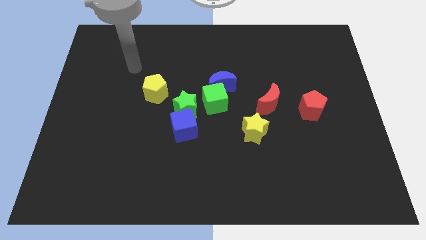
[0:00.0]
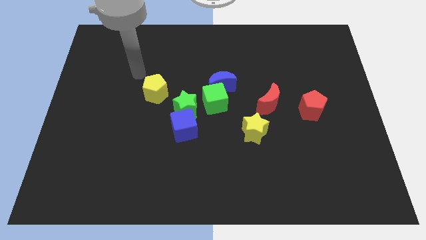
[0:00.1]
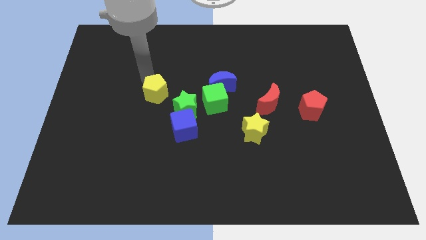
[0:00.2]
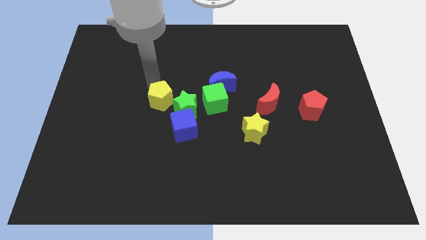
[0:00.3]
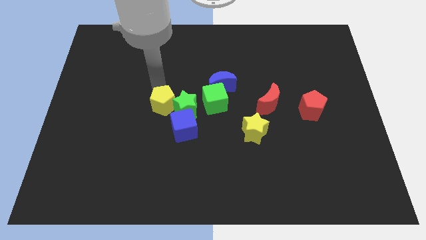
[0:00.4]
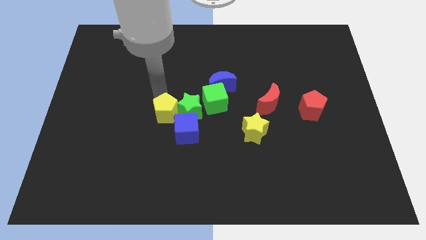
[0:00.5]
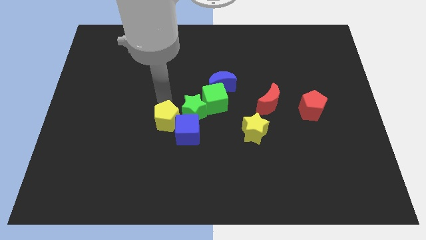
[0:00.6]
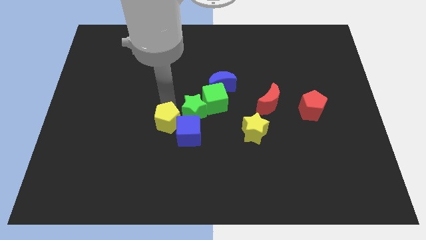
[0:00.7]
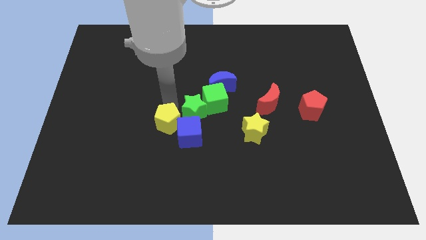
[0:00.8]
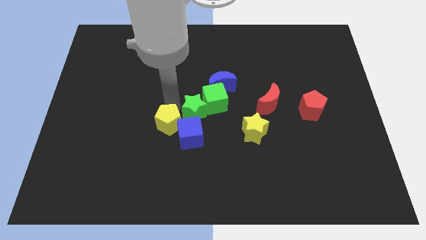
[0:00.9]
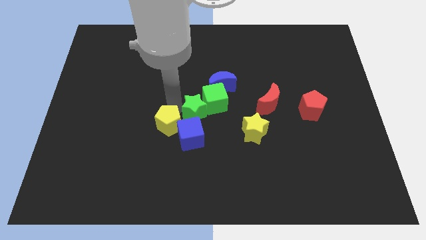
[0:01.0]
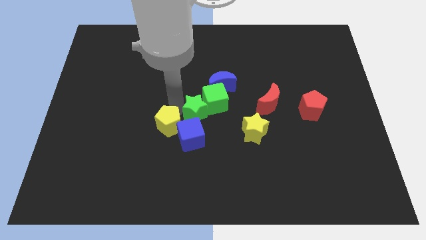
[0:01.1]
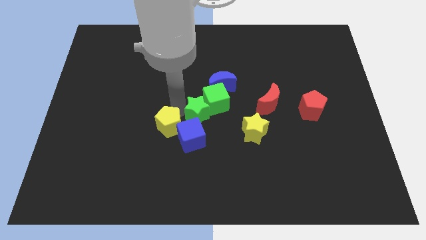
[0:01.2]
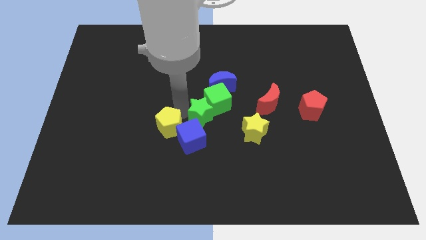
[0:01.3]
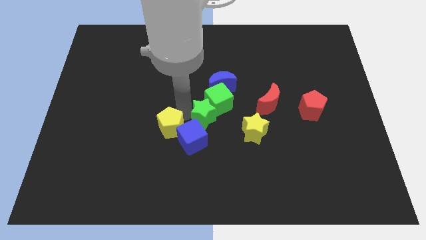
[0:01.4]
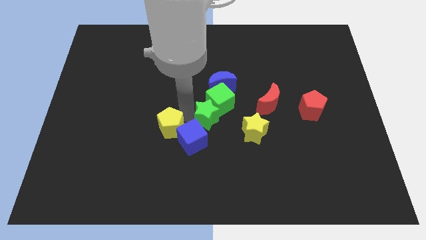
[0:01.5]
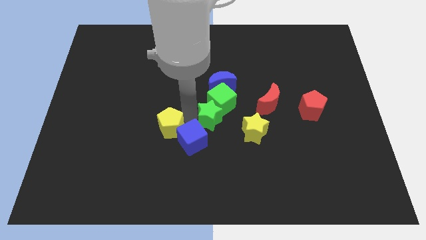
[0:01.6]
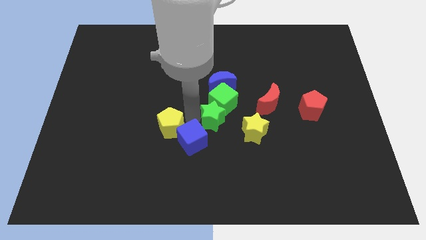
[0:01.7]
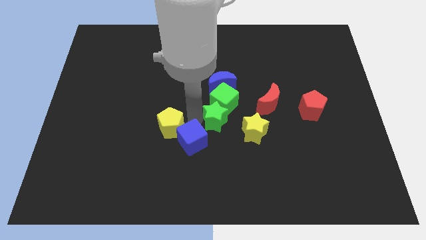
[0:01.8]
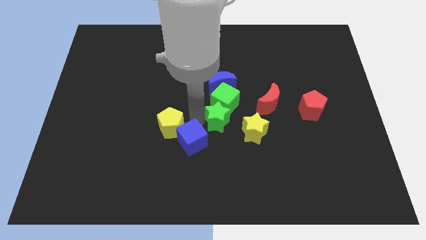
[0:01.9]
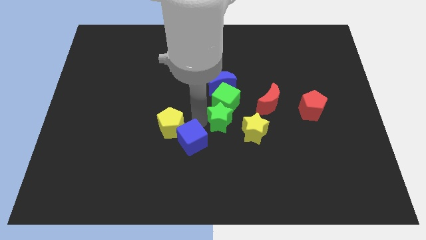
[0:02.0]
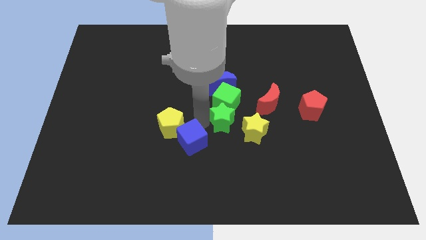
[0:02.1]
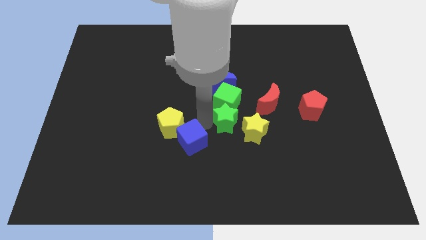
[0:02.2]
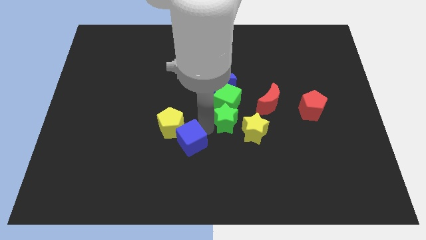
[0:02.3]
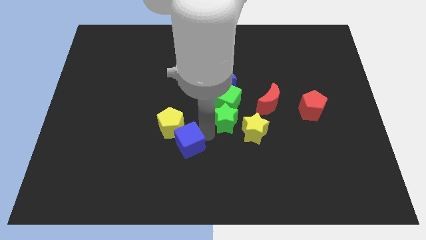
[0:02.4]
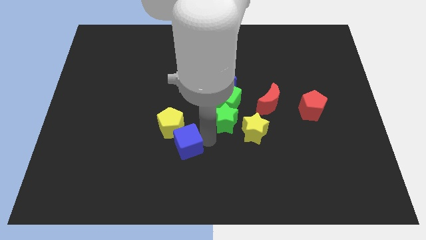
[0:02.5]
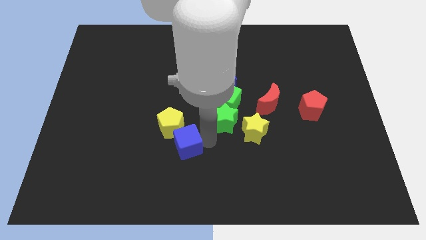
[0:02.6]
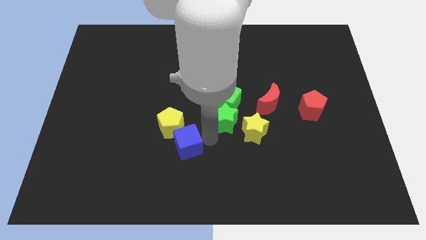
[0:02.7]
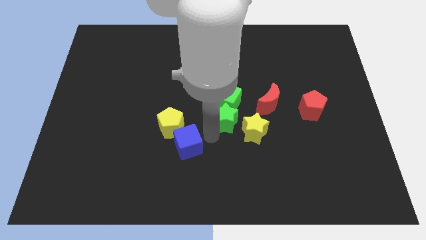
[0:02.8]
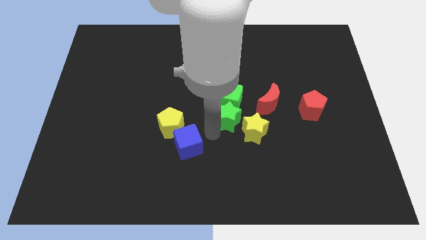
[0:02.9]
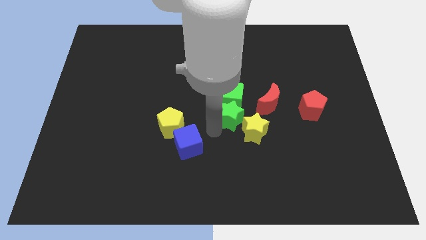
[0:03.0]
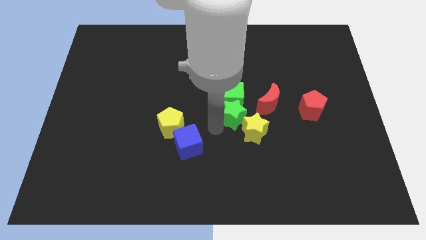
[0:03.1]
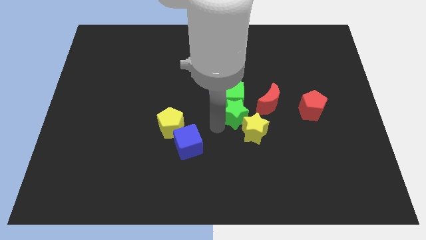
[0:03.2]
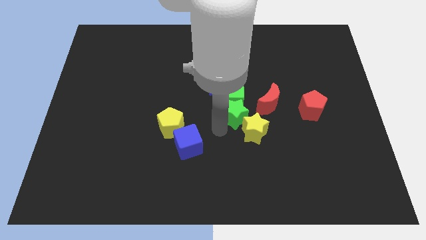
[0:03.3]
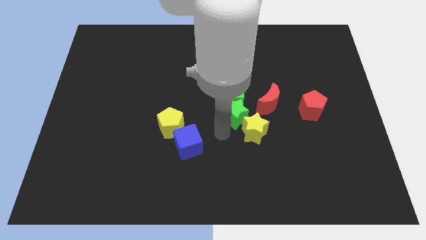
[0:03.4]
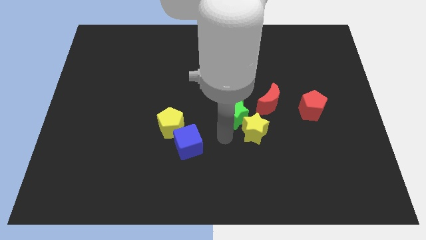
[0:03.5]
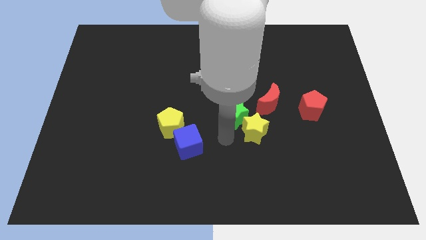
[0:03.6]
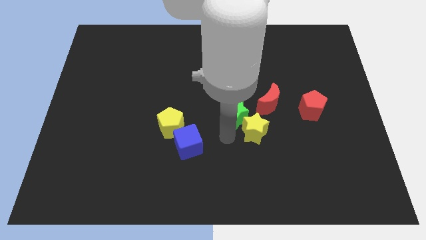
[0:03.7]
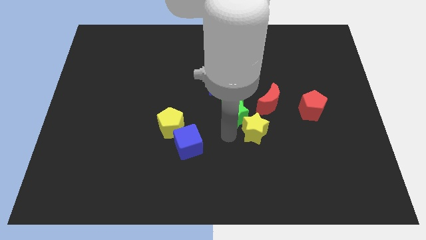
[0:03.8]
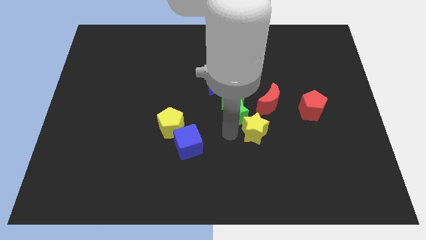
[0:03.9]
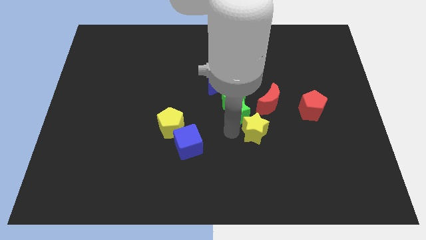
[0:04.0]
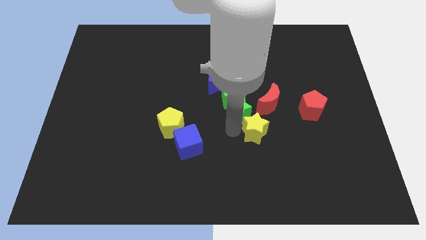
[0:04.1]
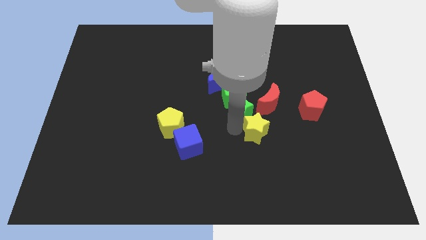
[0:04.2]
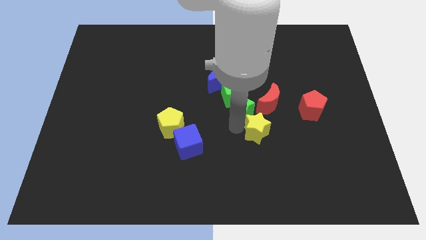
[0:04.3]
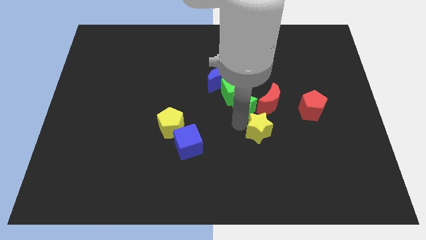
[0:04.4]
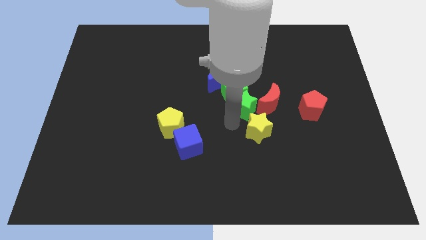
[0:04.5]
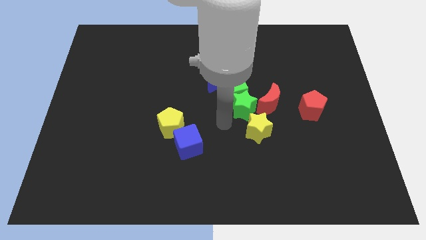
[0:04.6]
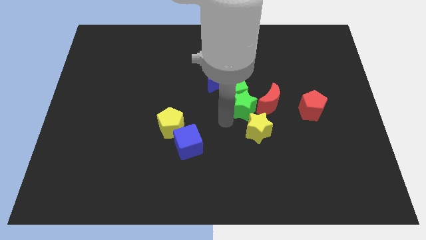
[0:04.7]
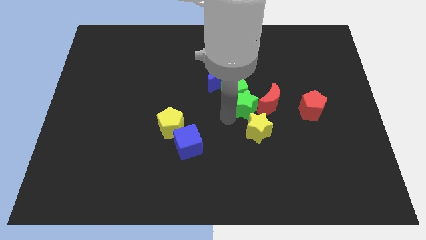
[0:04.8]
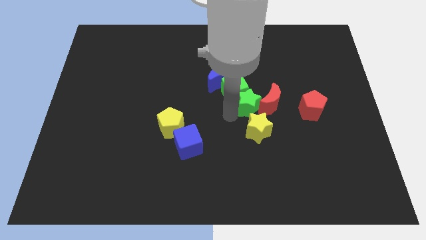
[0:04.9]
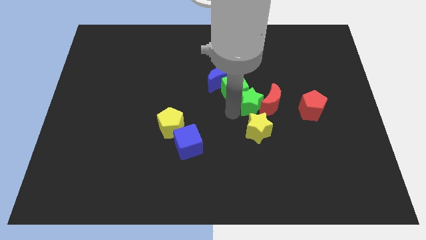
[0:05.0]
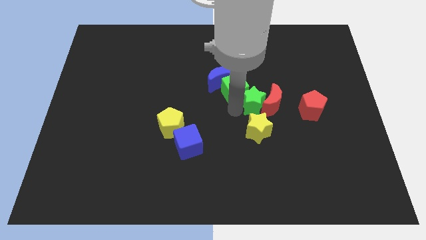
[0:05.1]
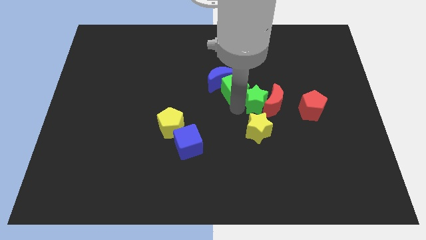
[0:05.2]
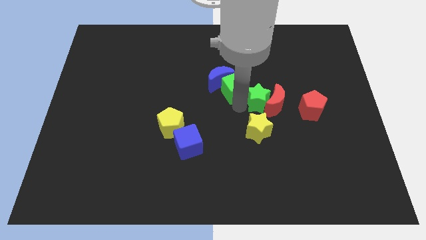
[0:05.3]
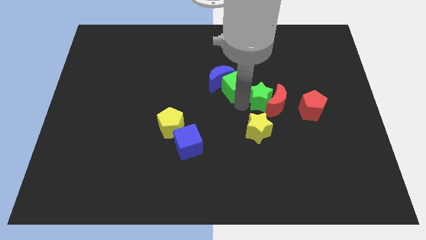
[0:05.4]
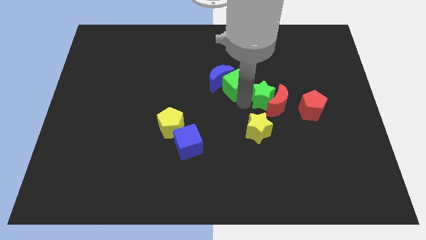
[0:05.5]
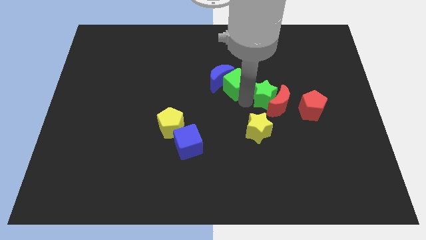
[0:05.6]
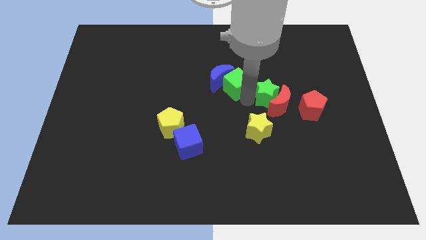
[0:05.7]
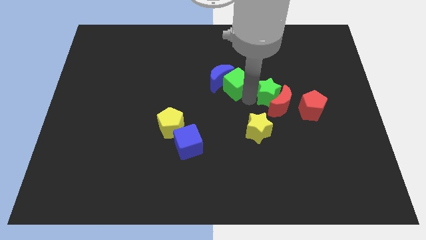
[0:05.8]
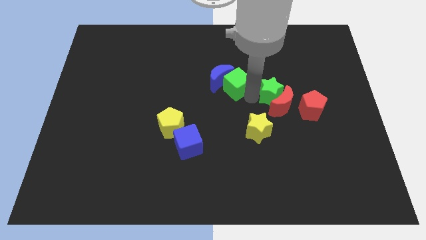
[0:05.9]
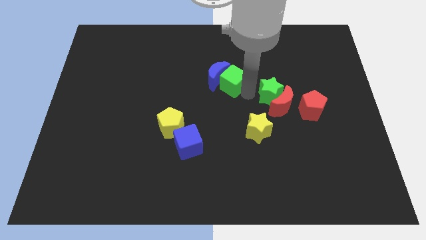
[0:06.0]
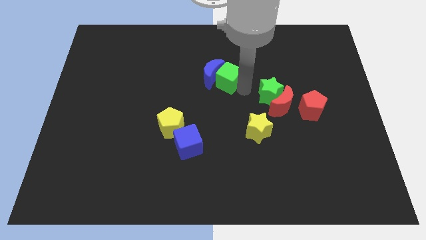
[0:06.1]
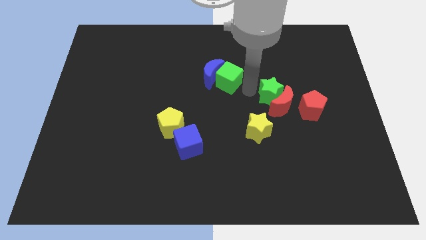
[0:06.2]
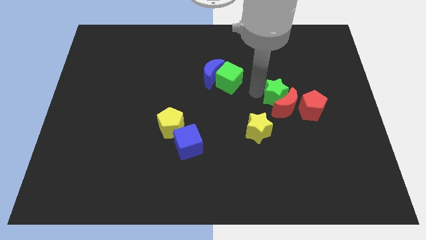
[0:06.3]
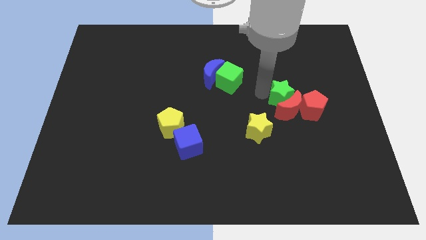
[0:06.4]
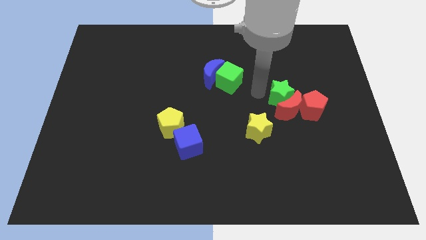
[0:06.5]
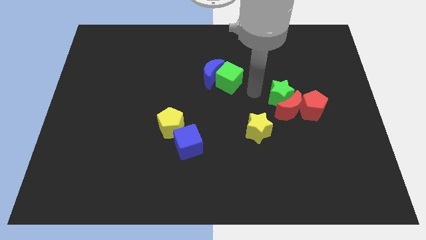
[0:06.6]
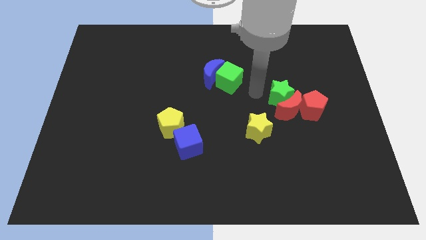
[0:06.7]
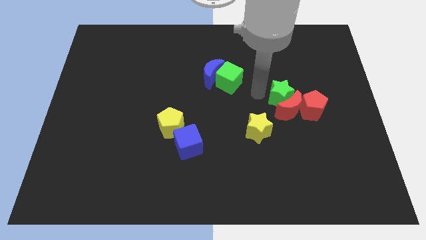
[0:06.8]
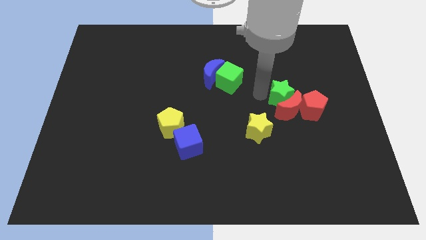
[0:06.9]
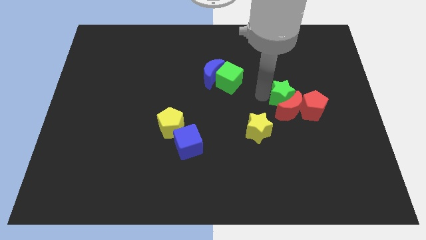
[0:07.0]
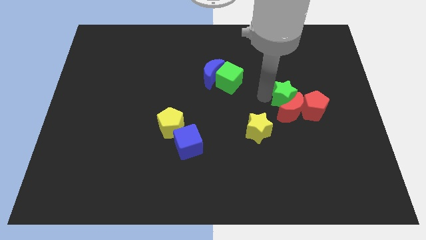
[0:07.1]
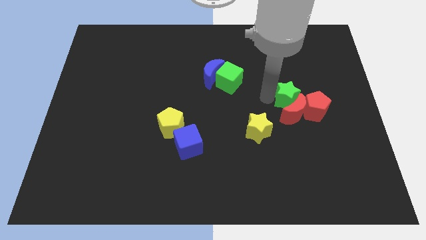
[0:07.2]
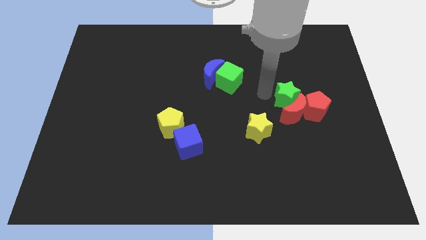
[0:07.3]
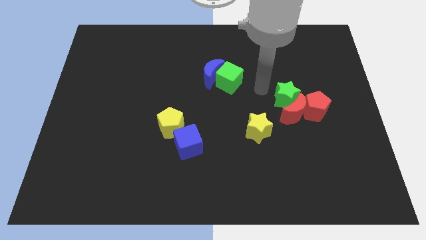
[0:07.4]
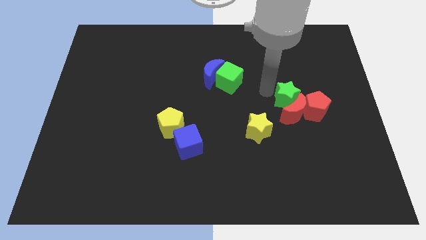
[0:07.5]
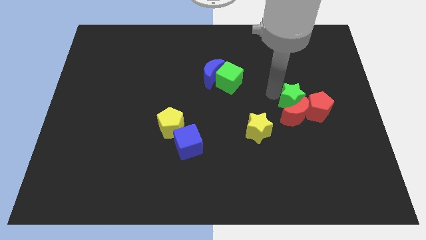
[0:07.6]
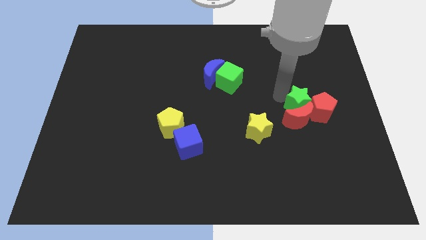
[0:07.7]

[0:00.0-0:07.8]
push the green star towards the red pentagon

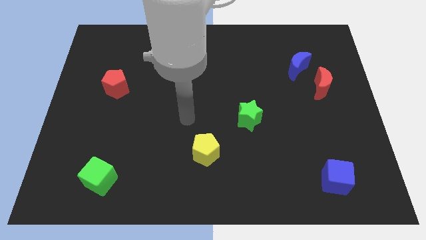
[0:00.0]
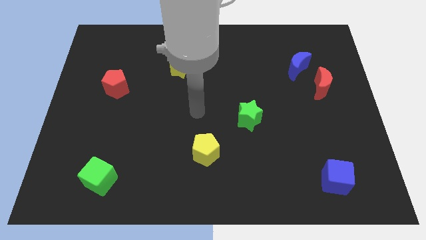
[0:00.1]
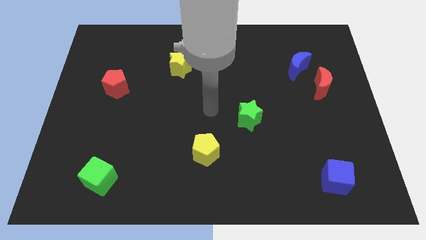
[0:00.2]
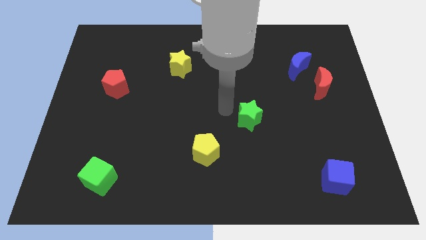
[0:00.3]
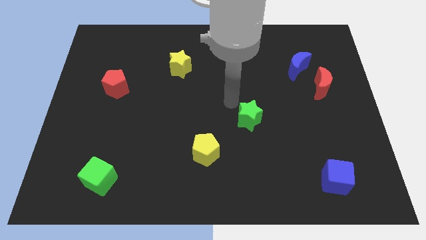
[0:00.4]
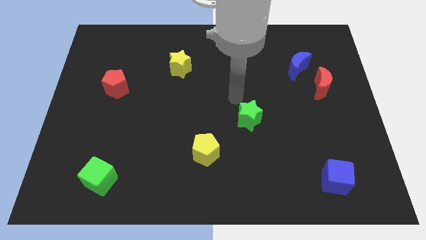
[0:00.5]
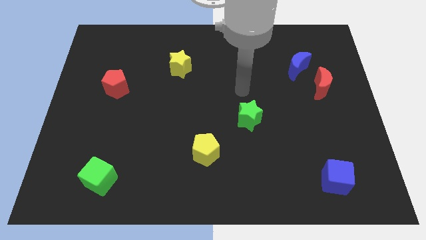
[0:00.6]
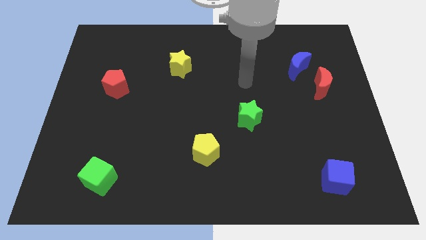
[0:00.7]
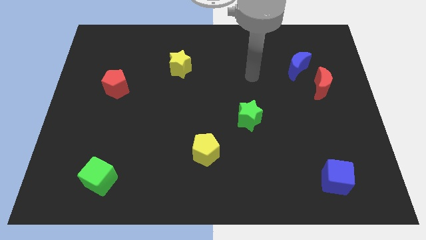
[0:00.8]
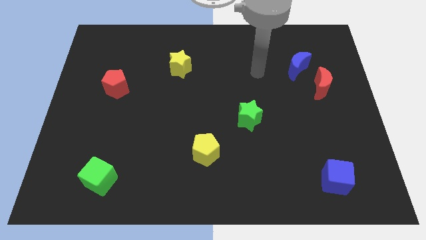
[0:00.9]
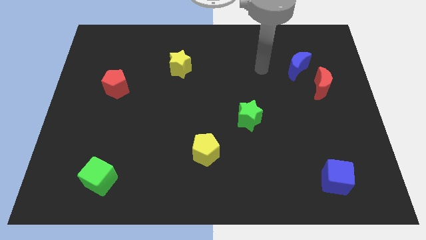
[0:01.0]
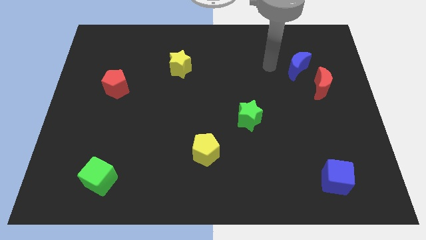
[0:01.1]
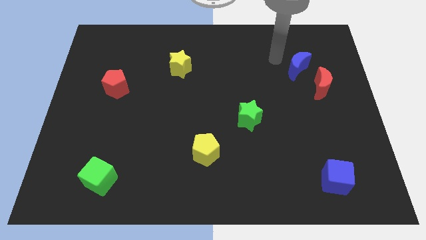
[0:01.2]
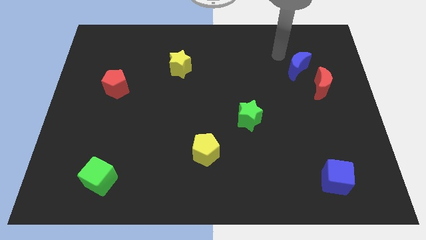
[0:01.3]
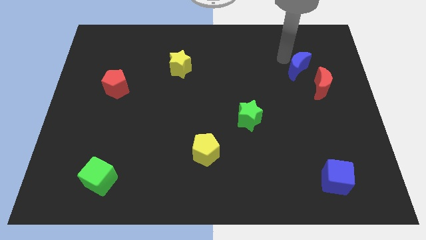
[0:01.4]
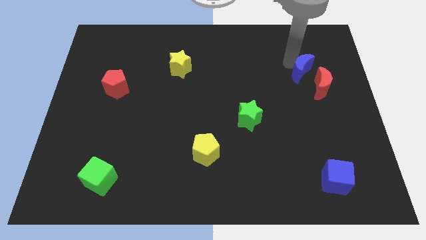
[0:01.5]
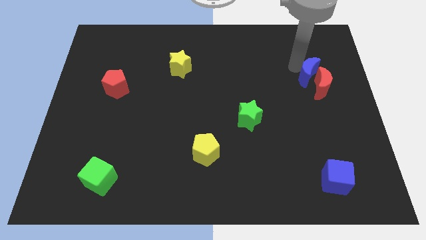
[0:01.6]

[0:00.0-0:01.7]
push the blue moon close to the red moon
